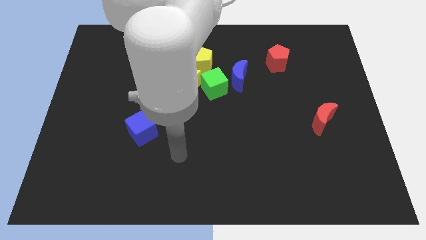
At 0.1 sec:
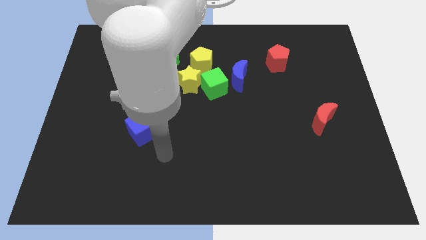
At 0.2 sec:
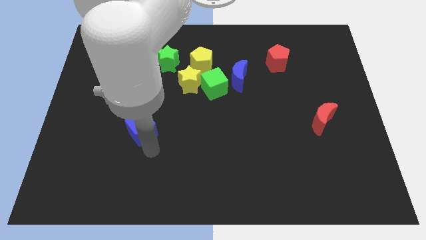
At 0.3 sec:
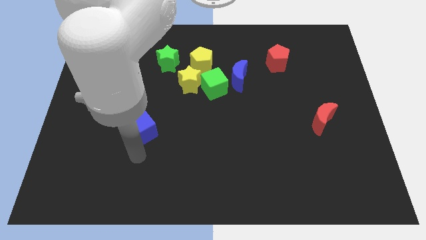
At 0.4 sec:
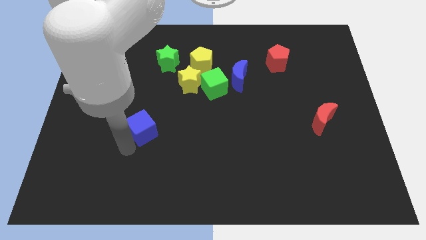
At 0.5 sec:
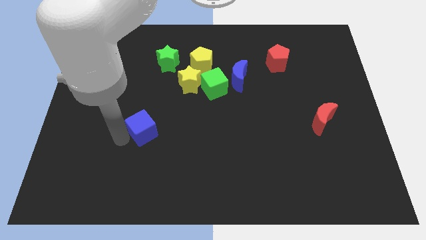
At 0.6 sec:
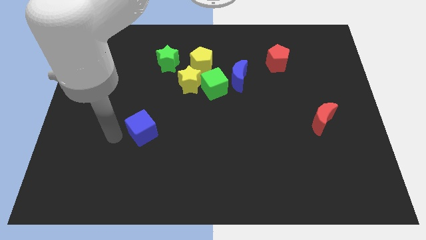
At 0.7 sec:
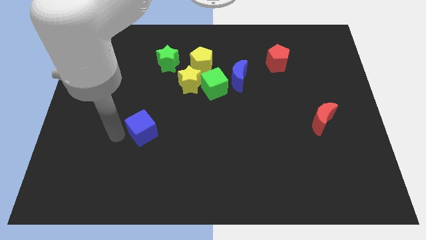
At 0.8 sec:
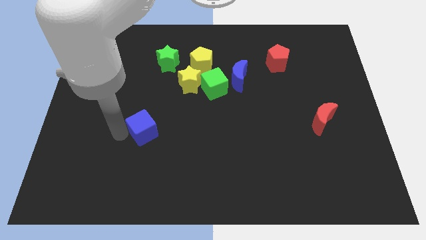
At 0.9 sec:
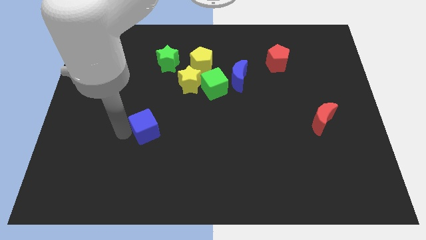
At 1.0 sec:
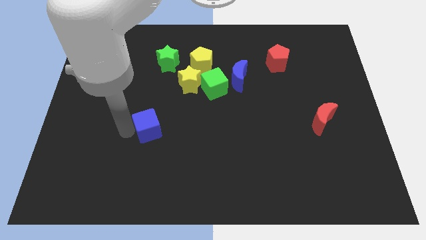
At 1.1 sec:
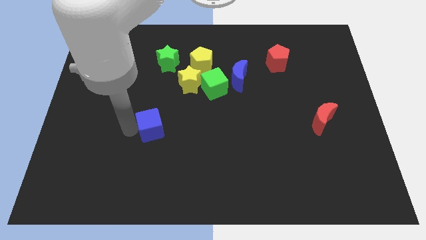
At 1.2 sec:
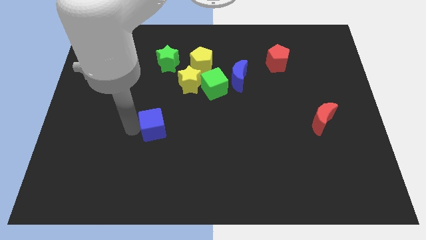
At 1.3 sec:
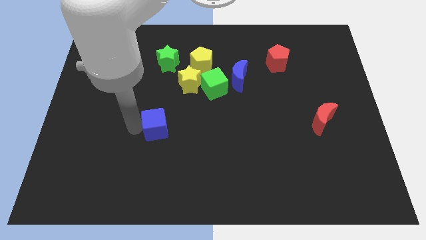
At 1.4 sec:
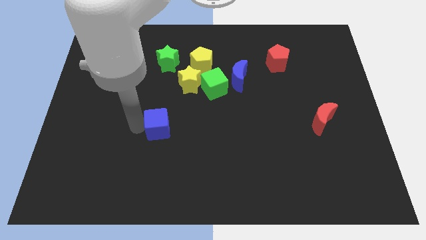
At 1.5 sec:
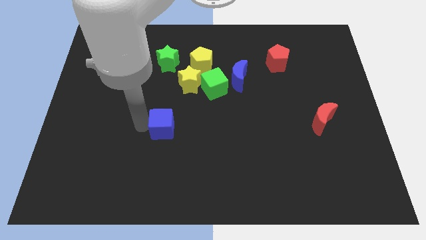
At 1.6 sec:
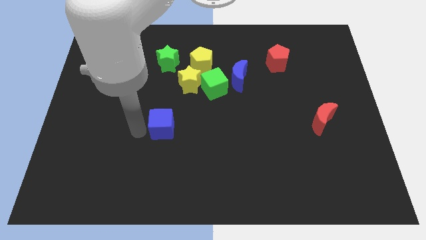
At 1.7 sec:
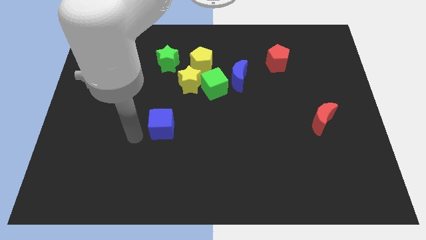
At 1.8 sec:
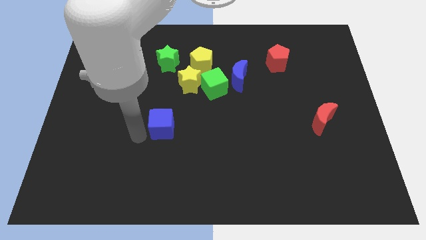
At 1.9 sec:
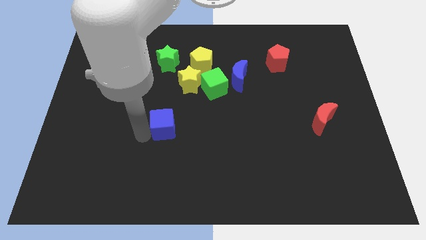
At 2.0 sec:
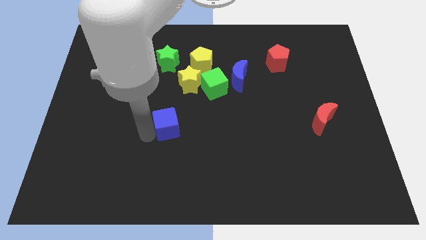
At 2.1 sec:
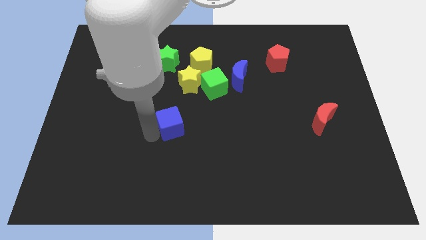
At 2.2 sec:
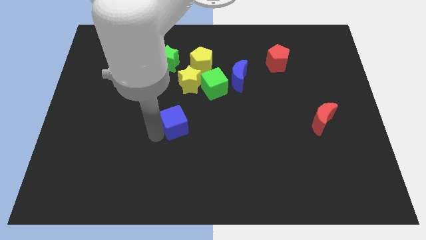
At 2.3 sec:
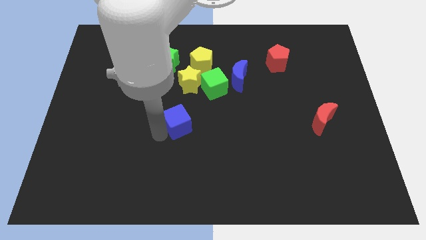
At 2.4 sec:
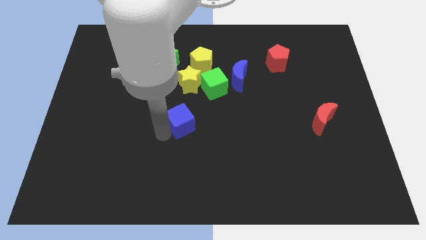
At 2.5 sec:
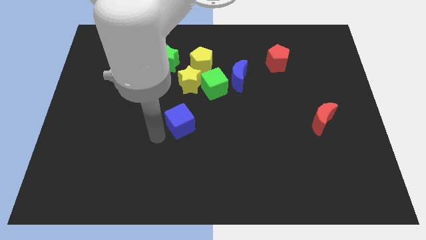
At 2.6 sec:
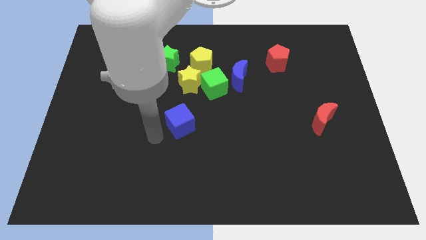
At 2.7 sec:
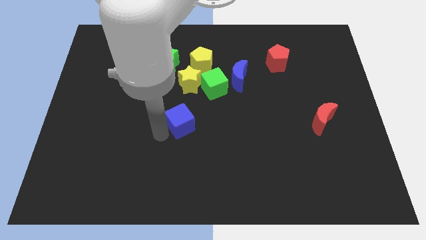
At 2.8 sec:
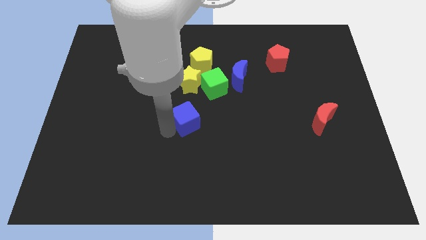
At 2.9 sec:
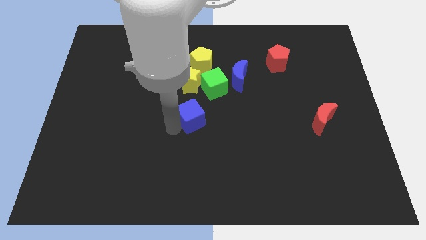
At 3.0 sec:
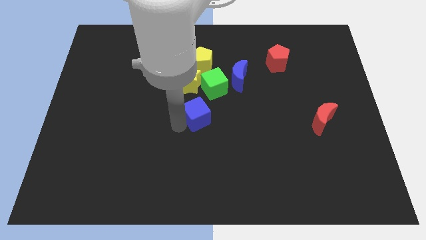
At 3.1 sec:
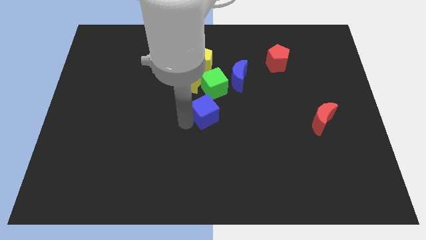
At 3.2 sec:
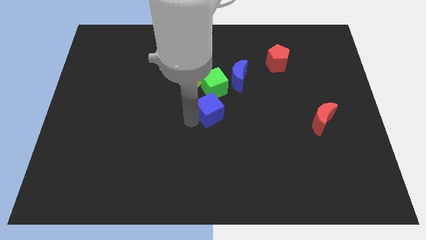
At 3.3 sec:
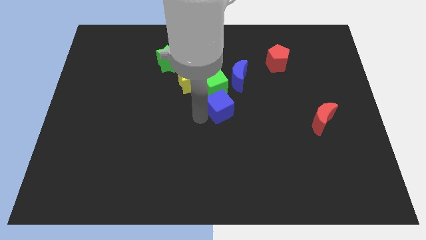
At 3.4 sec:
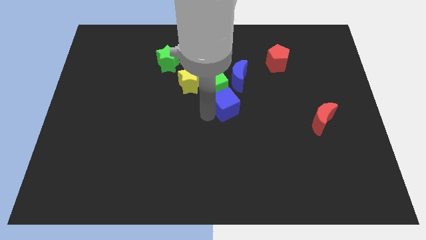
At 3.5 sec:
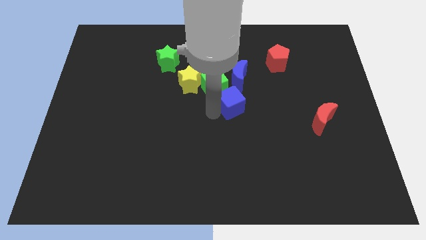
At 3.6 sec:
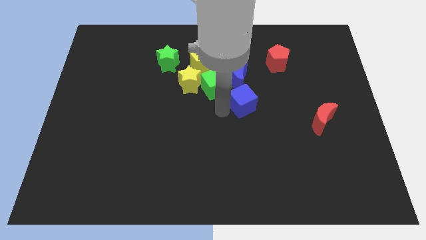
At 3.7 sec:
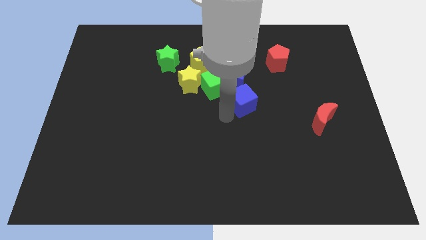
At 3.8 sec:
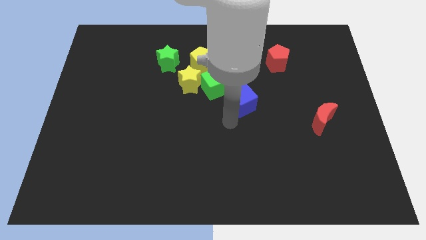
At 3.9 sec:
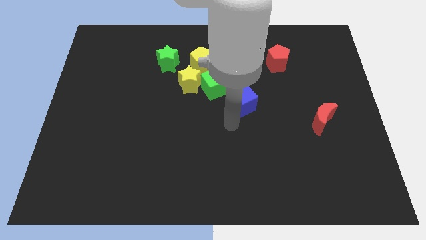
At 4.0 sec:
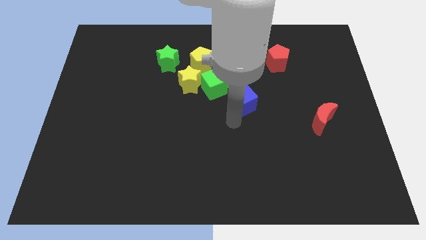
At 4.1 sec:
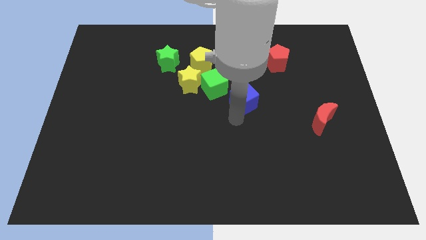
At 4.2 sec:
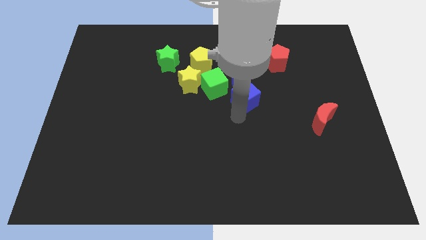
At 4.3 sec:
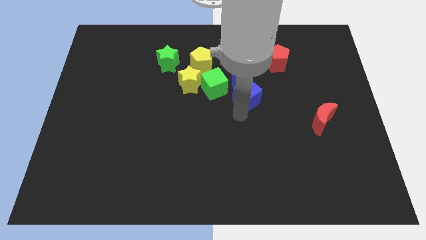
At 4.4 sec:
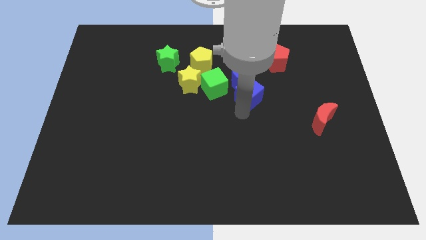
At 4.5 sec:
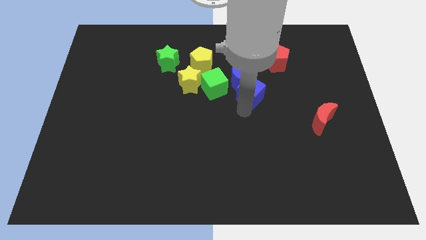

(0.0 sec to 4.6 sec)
move the blue cube upwards and to the right

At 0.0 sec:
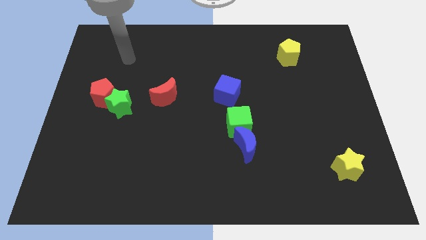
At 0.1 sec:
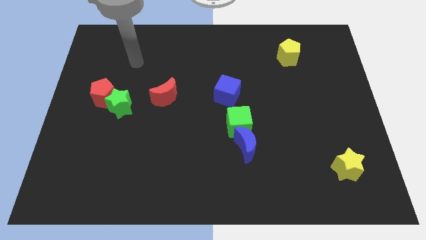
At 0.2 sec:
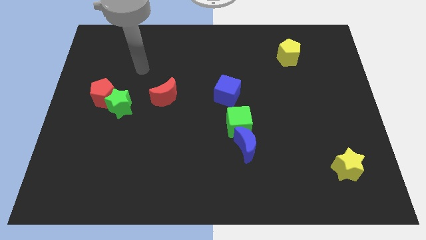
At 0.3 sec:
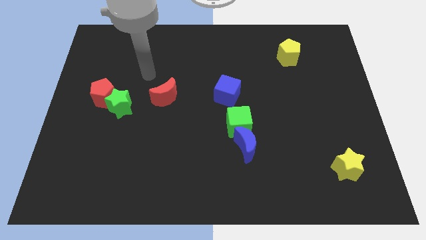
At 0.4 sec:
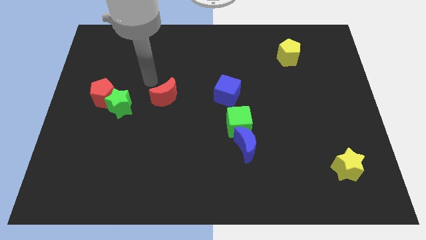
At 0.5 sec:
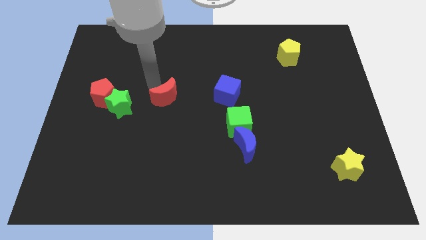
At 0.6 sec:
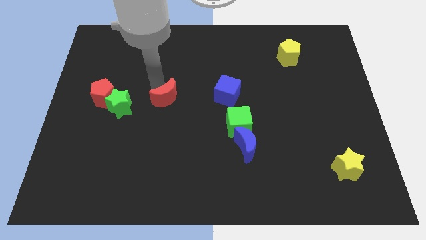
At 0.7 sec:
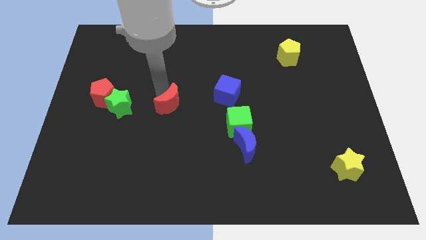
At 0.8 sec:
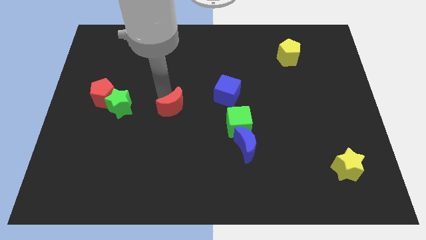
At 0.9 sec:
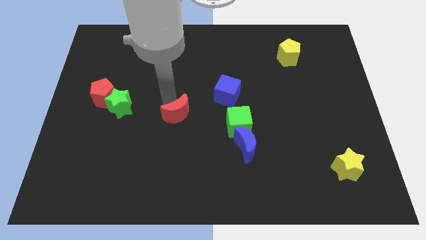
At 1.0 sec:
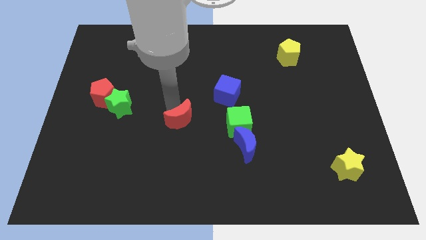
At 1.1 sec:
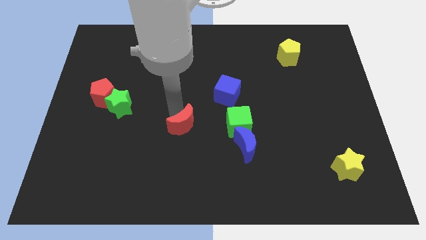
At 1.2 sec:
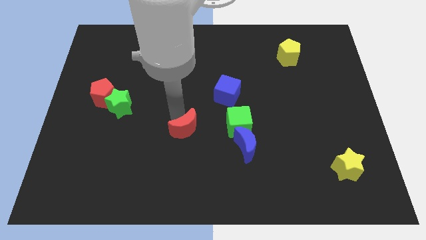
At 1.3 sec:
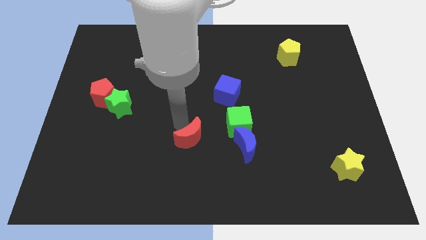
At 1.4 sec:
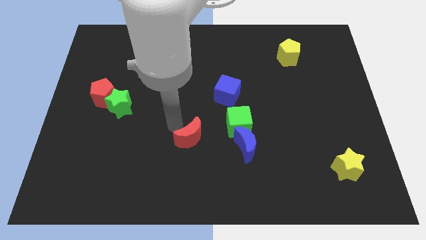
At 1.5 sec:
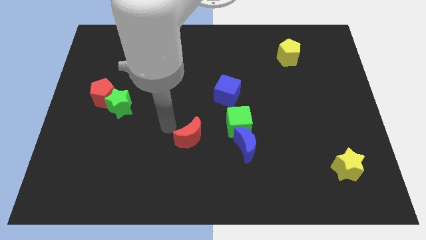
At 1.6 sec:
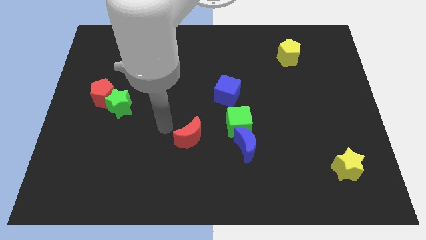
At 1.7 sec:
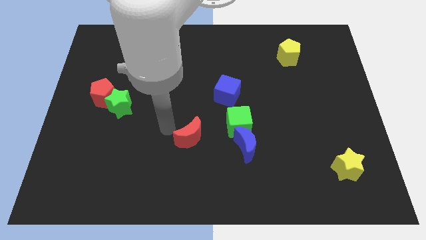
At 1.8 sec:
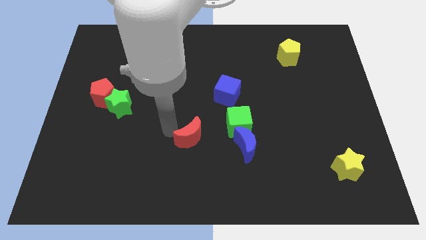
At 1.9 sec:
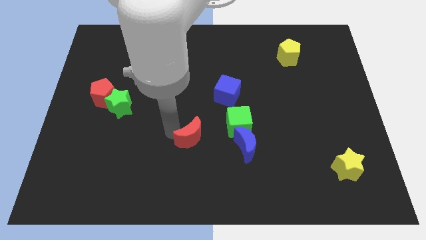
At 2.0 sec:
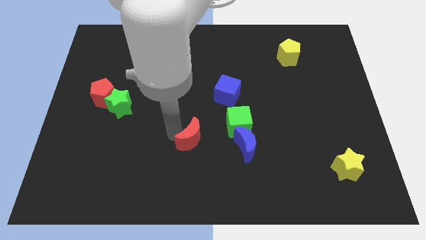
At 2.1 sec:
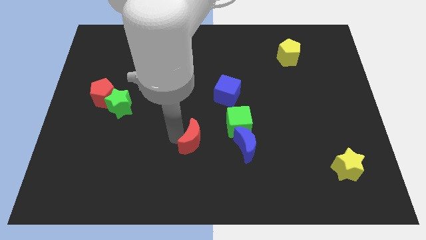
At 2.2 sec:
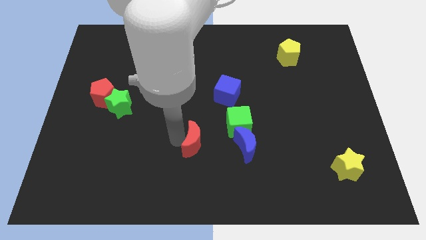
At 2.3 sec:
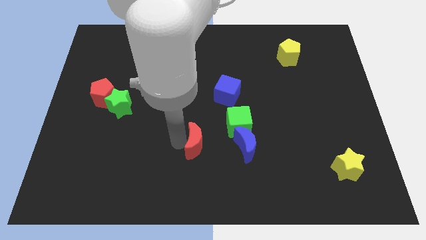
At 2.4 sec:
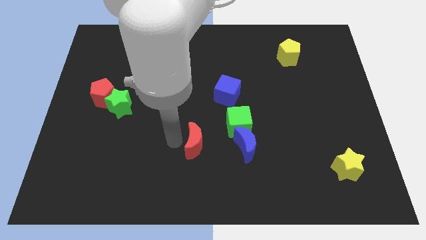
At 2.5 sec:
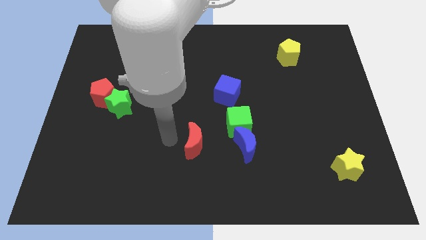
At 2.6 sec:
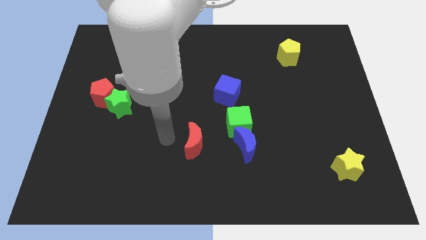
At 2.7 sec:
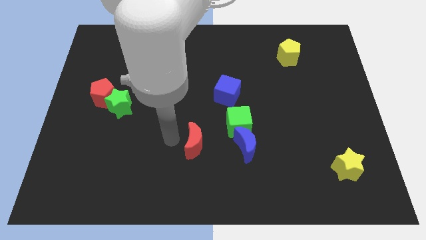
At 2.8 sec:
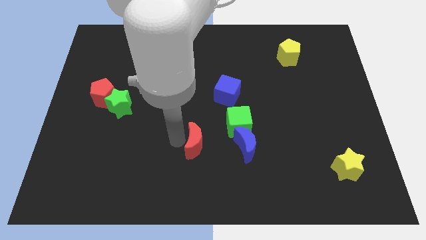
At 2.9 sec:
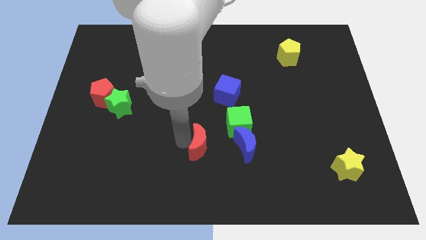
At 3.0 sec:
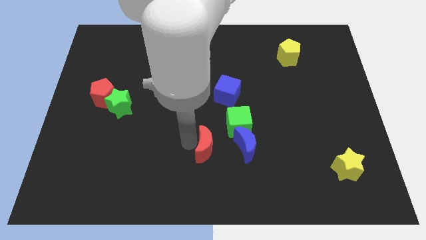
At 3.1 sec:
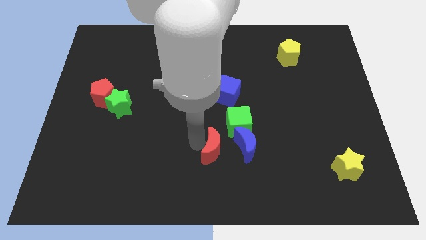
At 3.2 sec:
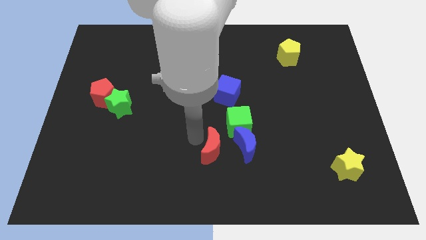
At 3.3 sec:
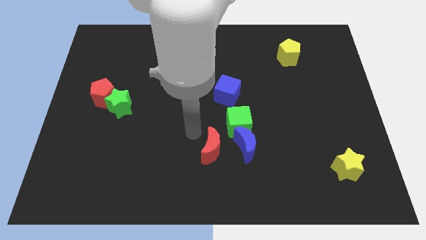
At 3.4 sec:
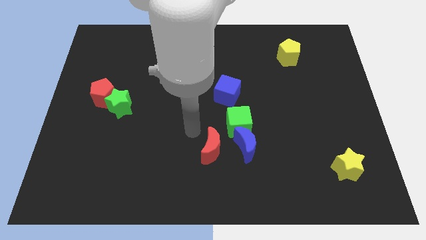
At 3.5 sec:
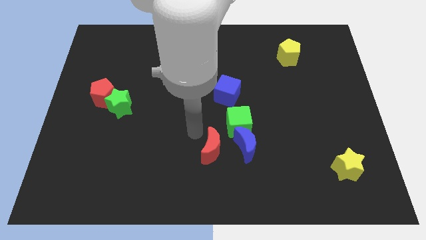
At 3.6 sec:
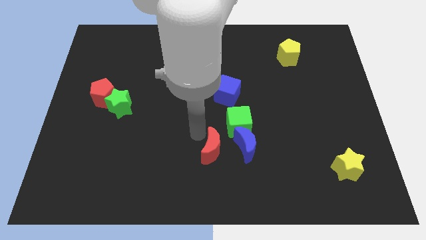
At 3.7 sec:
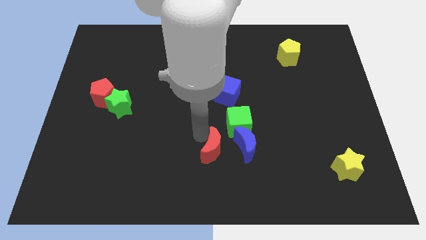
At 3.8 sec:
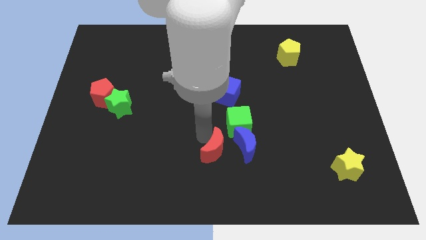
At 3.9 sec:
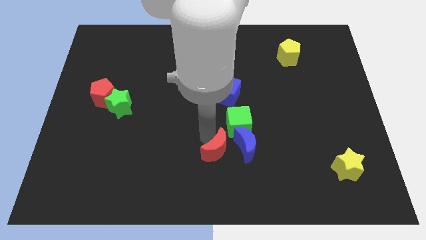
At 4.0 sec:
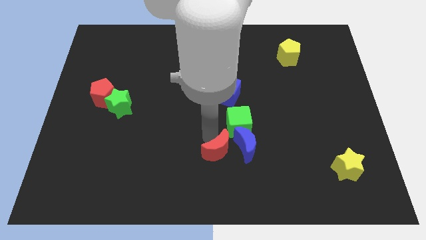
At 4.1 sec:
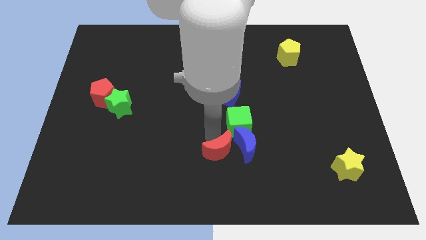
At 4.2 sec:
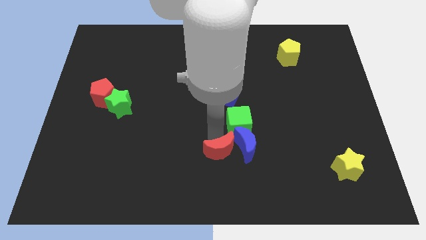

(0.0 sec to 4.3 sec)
push the red moon downwards and then to the right
